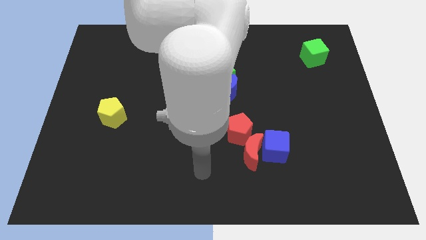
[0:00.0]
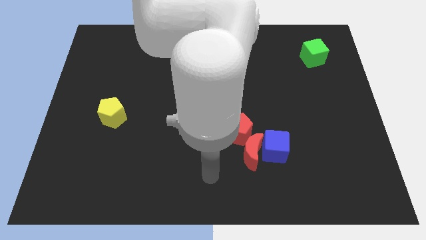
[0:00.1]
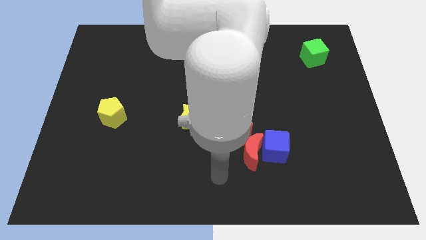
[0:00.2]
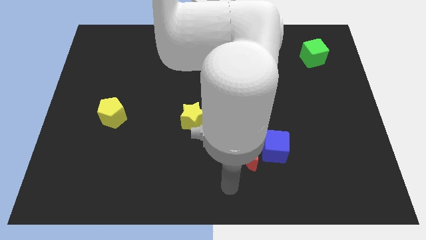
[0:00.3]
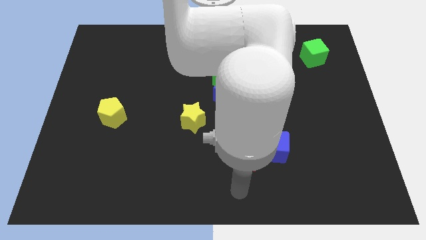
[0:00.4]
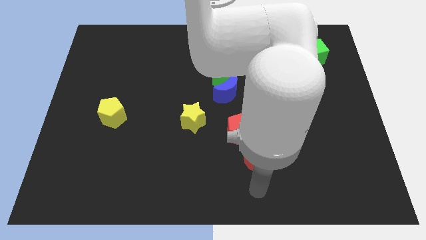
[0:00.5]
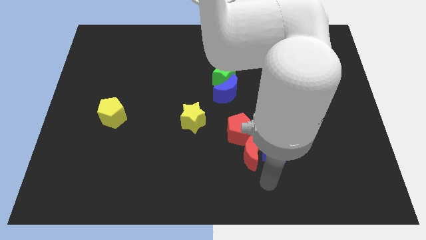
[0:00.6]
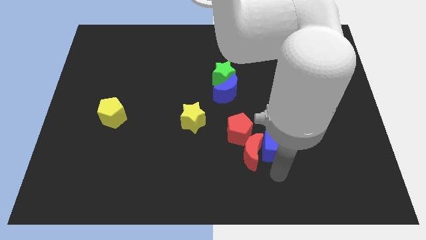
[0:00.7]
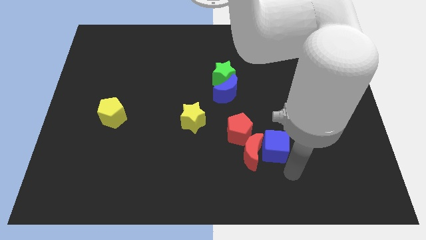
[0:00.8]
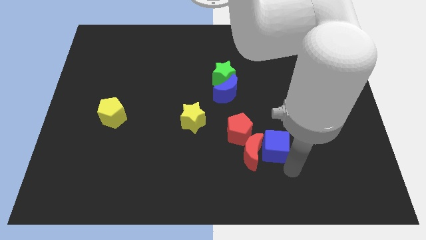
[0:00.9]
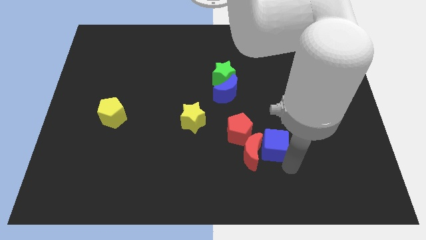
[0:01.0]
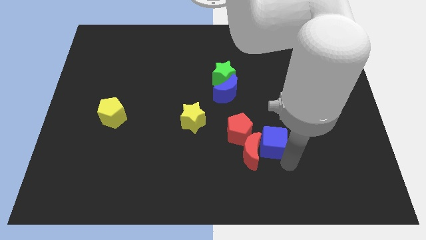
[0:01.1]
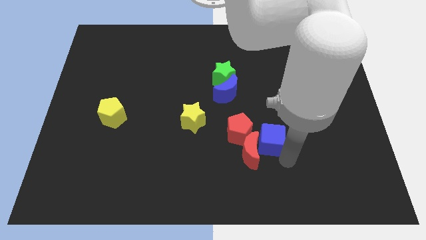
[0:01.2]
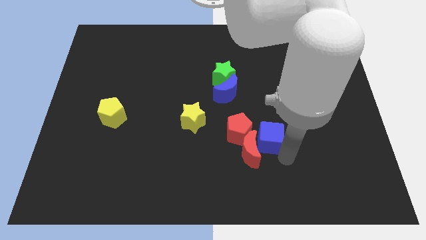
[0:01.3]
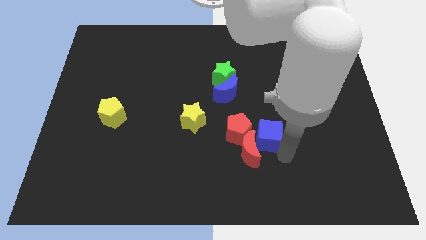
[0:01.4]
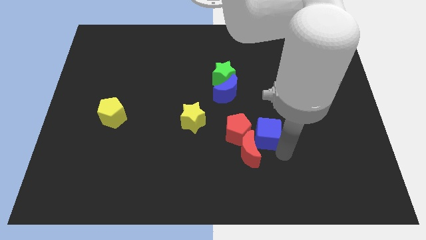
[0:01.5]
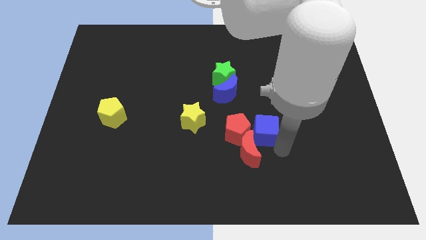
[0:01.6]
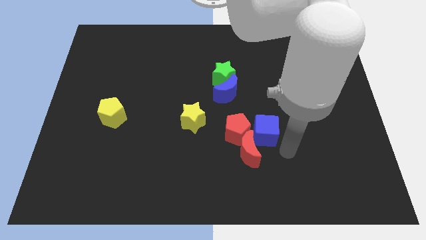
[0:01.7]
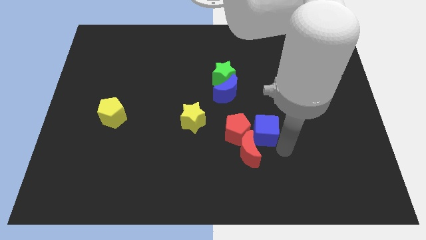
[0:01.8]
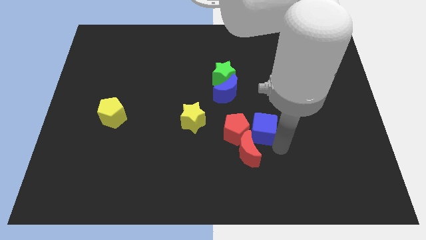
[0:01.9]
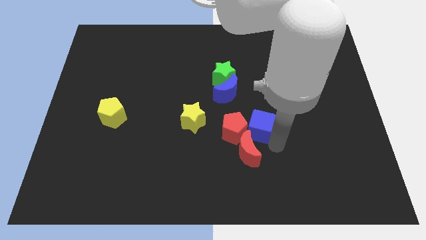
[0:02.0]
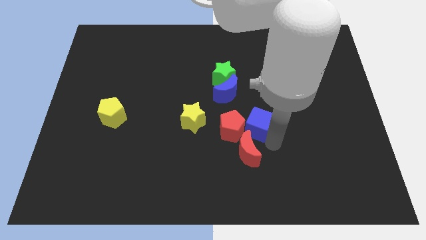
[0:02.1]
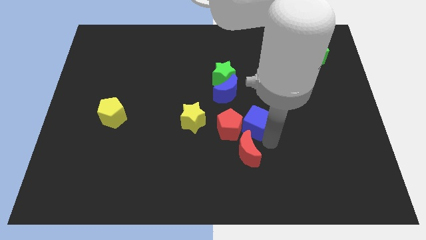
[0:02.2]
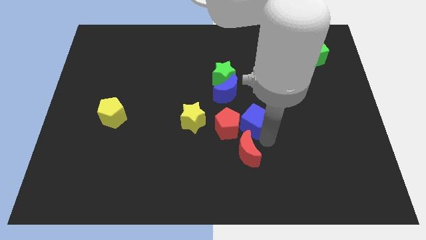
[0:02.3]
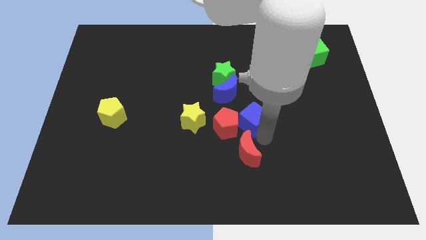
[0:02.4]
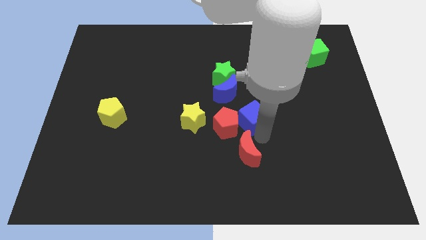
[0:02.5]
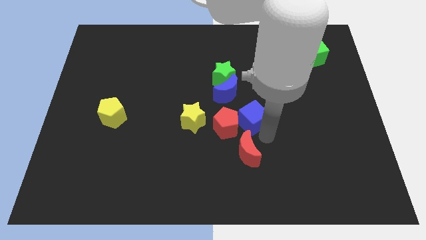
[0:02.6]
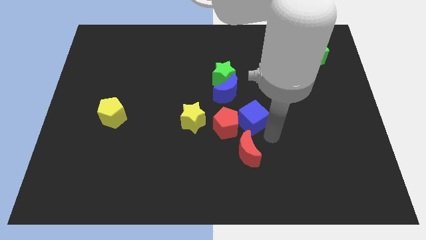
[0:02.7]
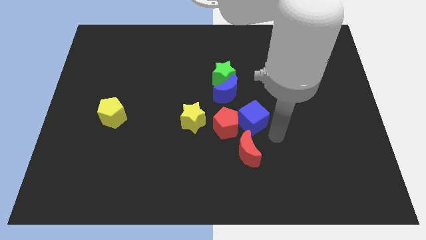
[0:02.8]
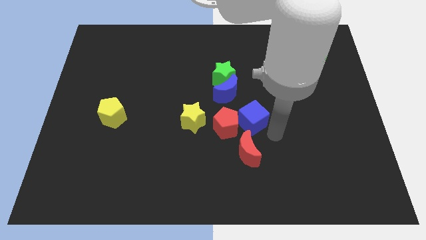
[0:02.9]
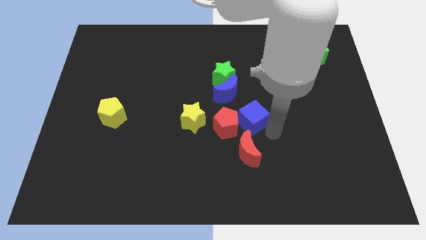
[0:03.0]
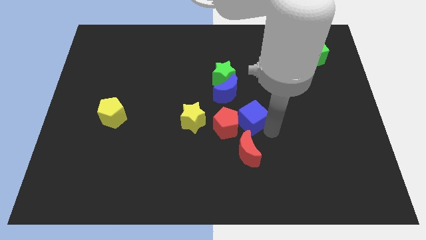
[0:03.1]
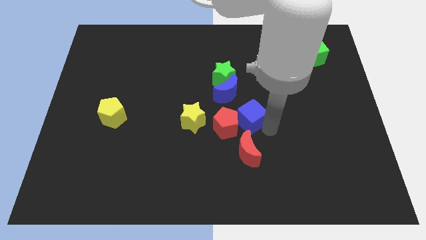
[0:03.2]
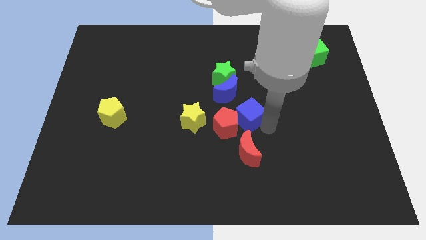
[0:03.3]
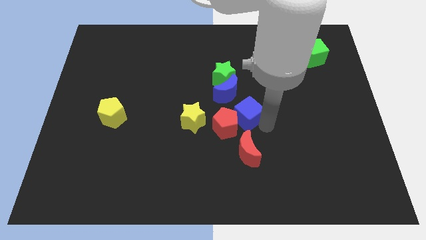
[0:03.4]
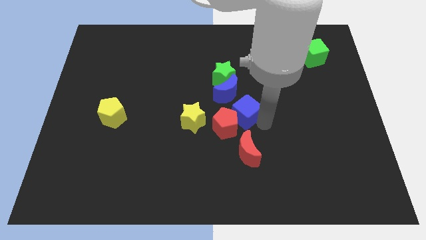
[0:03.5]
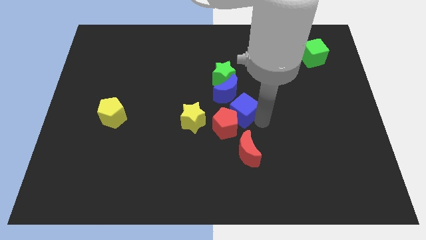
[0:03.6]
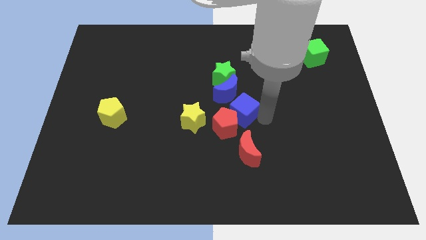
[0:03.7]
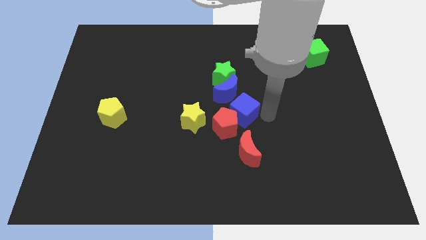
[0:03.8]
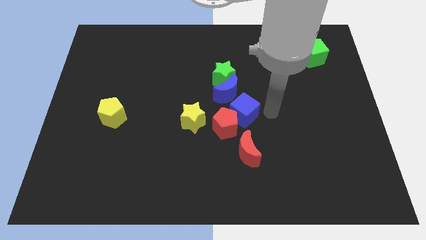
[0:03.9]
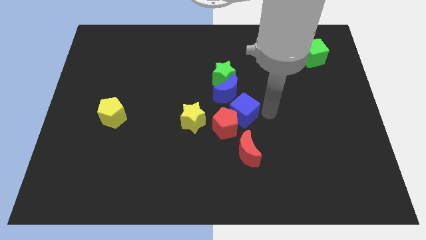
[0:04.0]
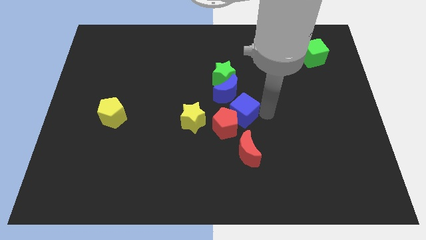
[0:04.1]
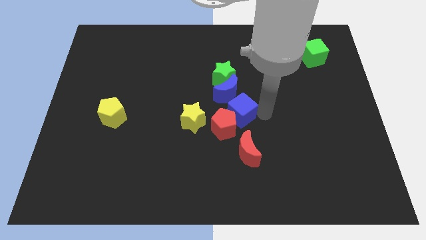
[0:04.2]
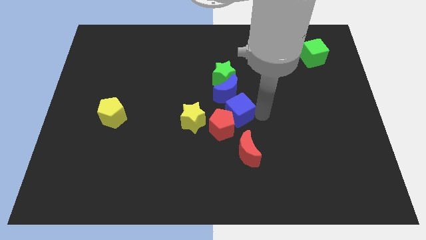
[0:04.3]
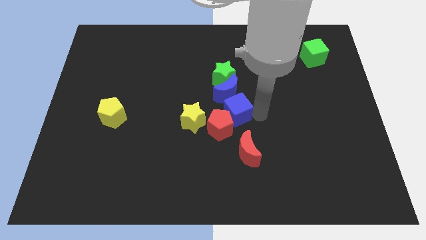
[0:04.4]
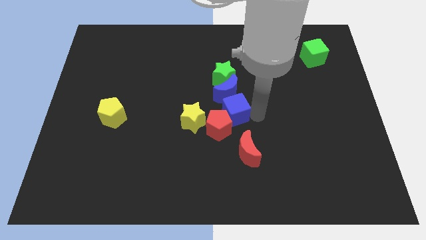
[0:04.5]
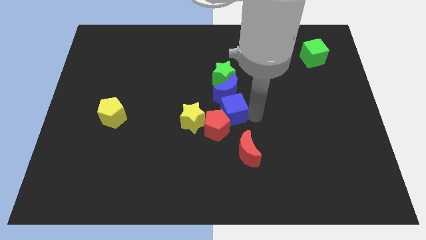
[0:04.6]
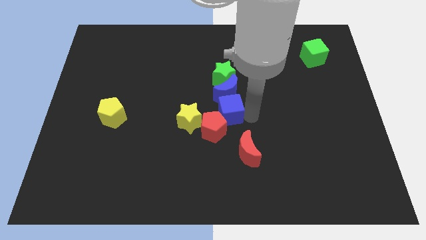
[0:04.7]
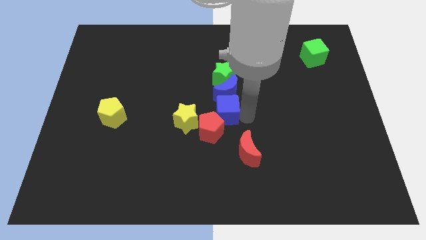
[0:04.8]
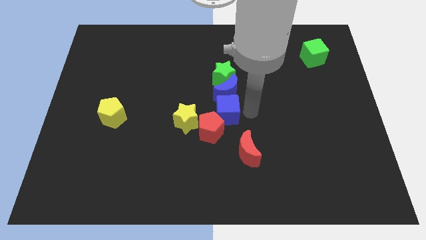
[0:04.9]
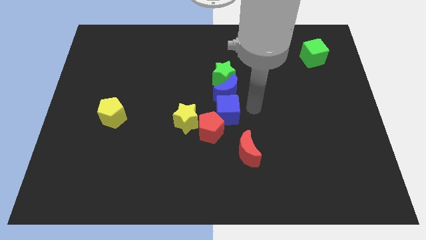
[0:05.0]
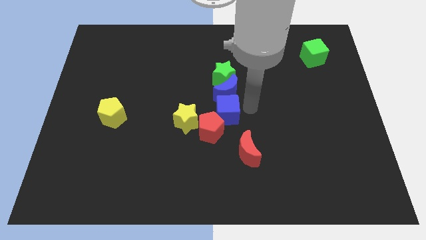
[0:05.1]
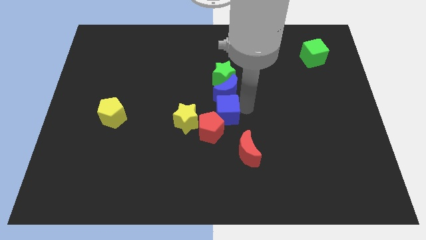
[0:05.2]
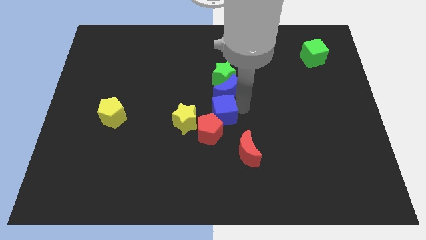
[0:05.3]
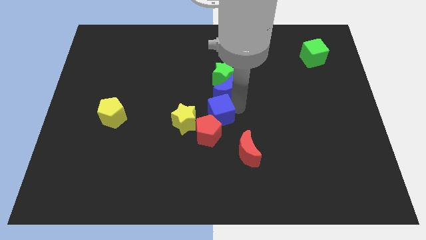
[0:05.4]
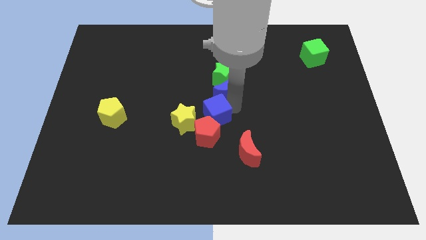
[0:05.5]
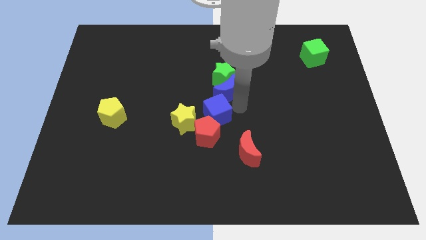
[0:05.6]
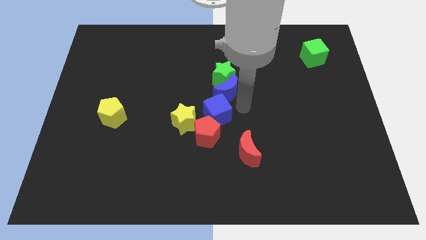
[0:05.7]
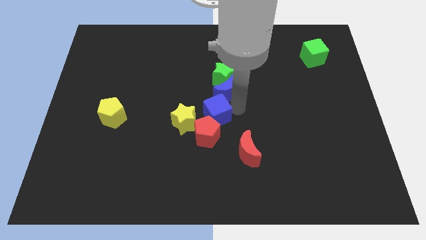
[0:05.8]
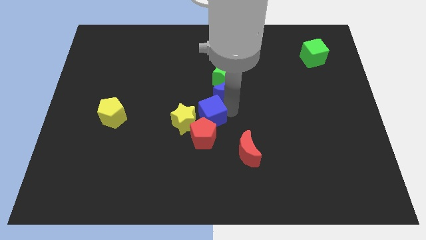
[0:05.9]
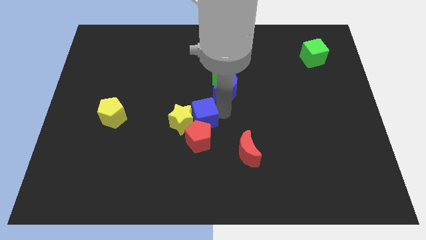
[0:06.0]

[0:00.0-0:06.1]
push the blue cube towards the yellow star

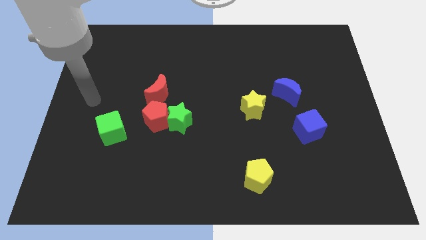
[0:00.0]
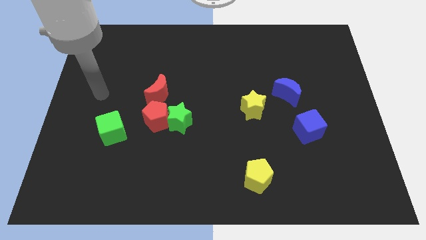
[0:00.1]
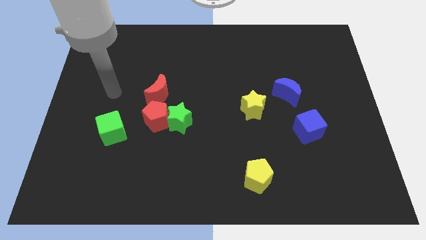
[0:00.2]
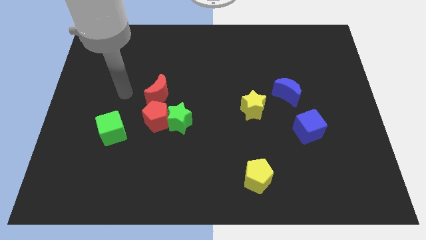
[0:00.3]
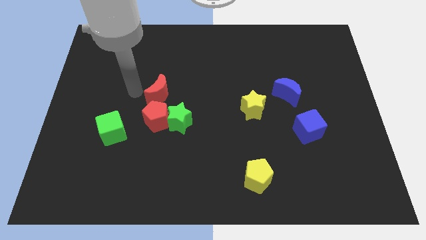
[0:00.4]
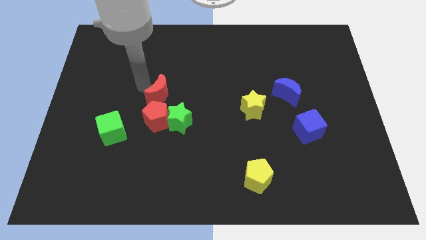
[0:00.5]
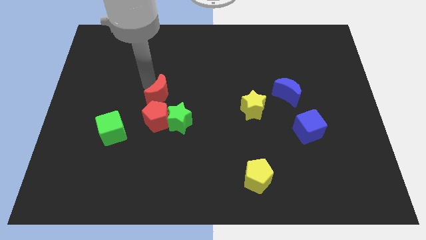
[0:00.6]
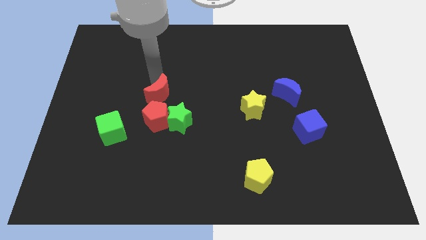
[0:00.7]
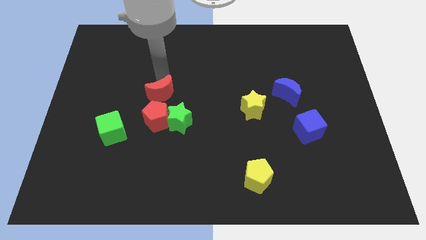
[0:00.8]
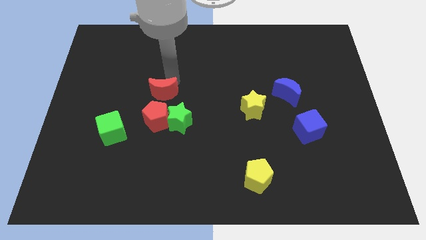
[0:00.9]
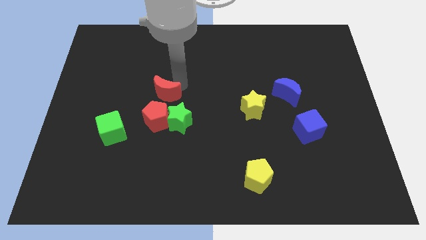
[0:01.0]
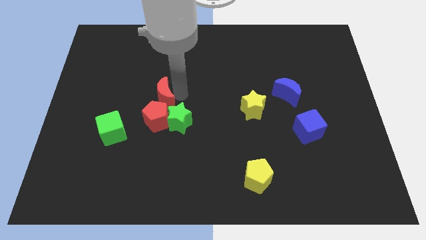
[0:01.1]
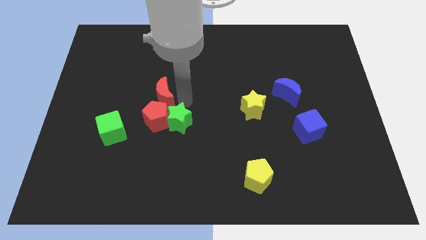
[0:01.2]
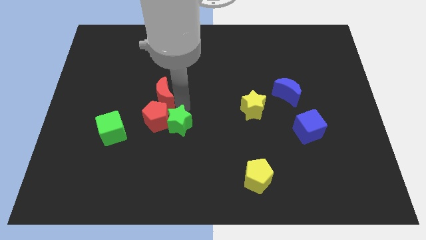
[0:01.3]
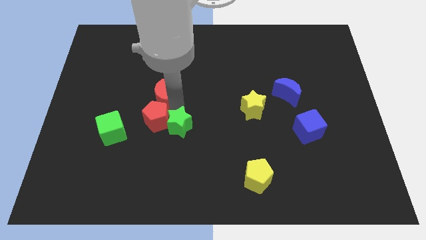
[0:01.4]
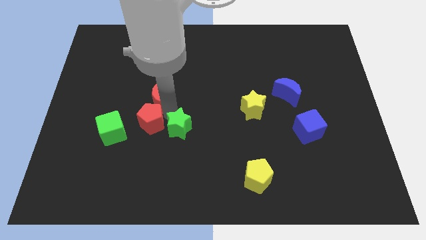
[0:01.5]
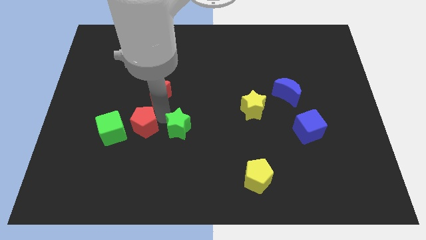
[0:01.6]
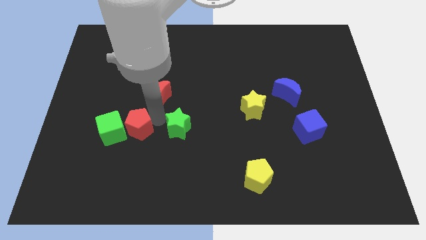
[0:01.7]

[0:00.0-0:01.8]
move the red pentagon next to the green cube
